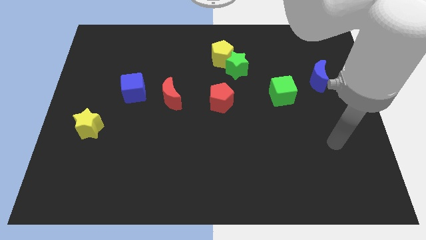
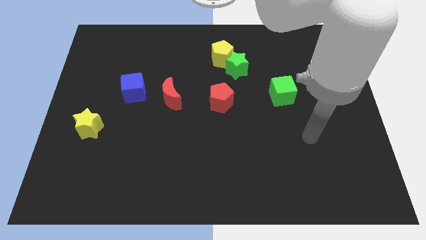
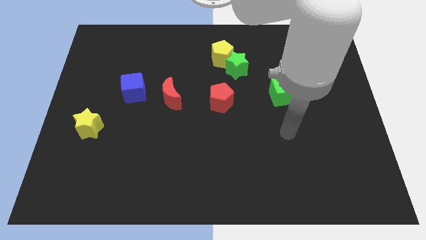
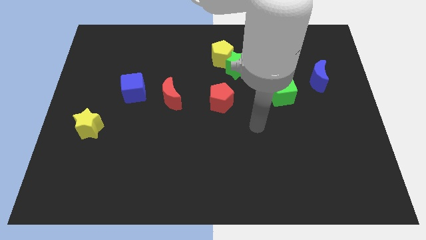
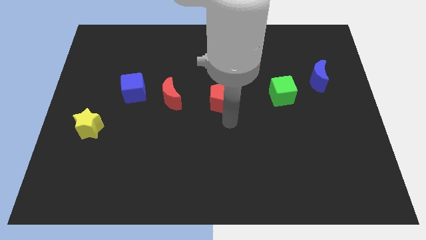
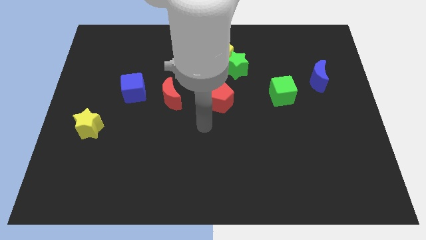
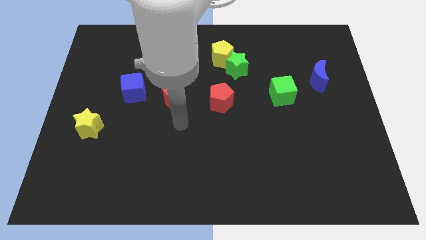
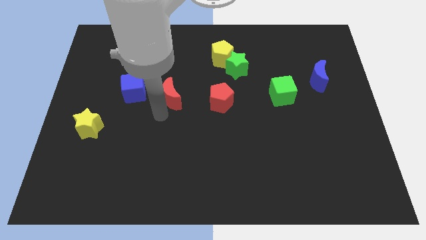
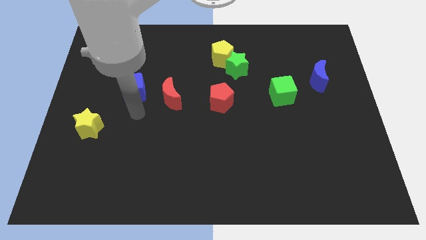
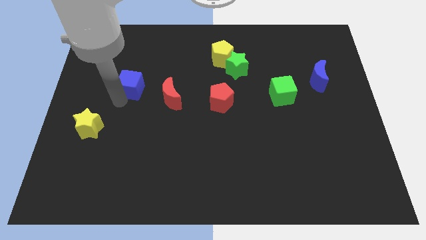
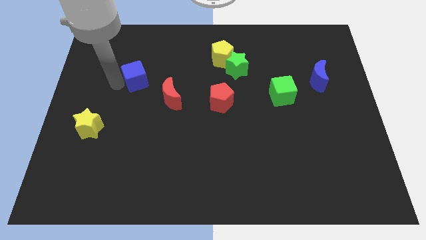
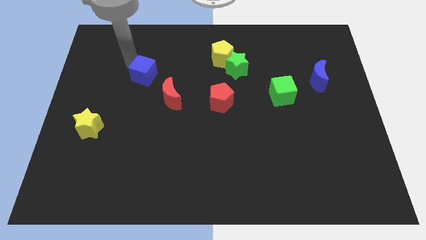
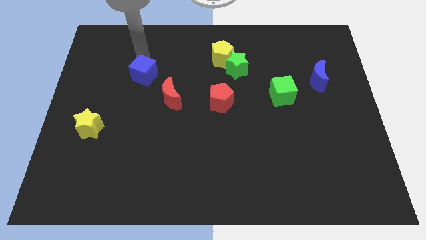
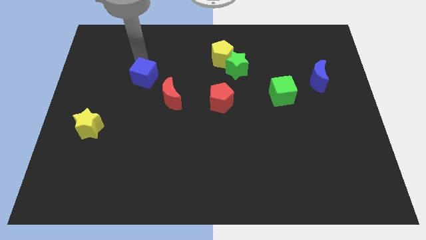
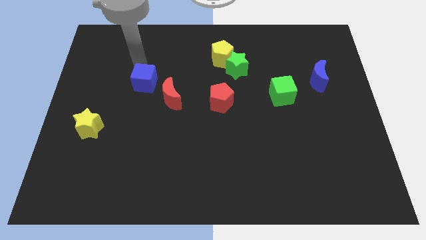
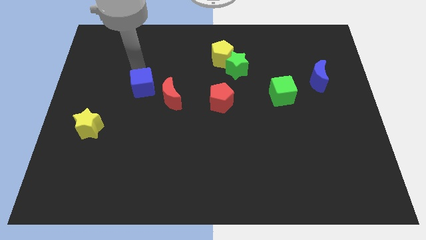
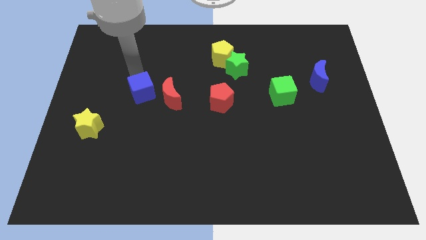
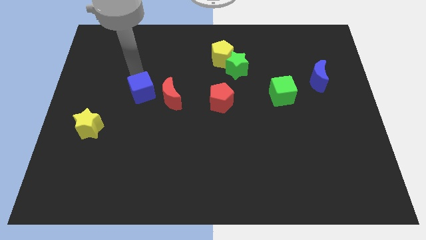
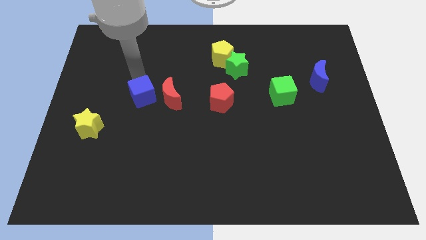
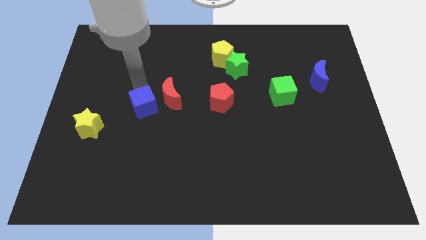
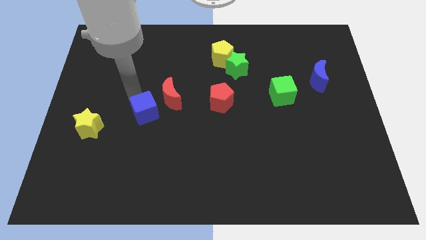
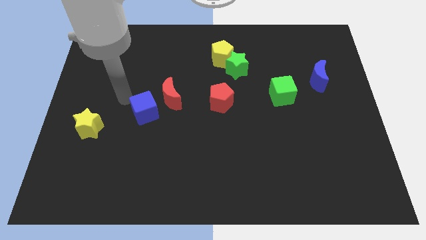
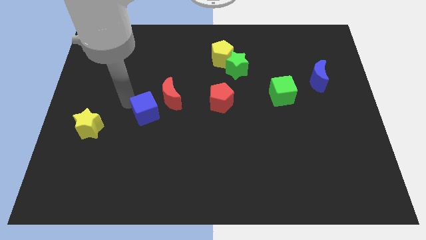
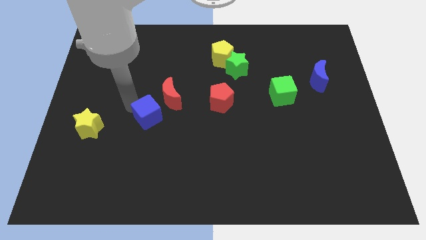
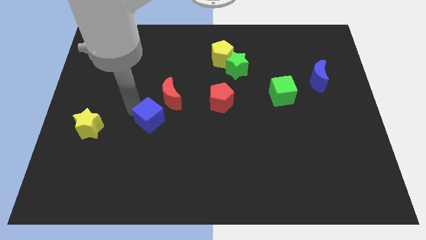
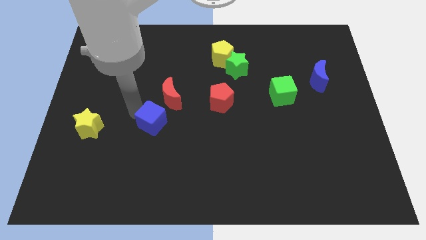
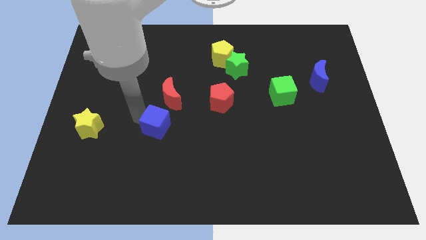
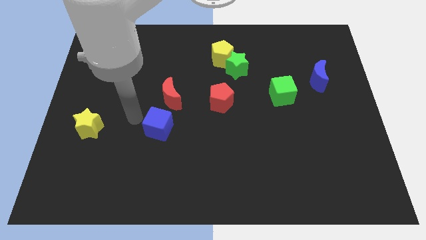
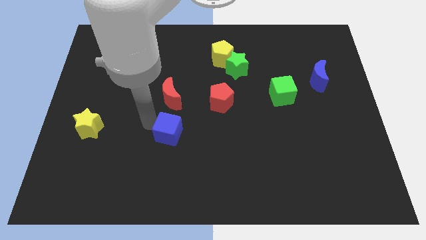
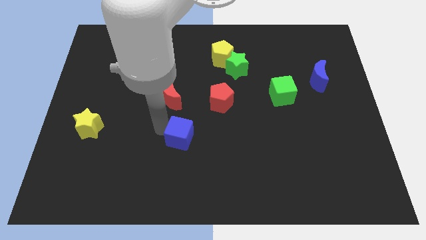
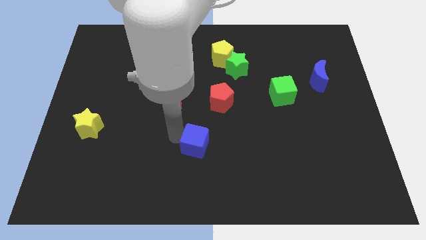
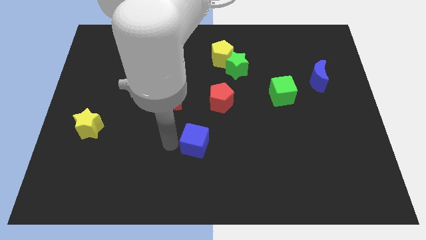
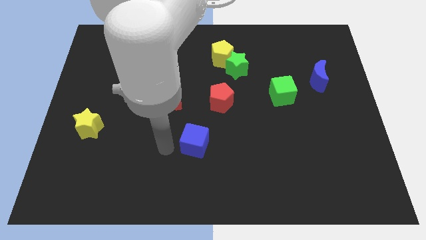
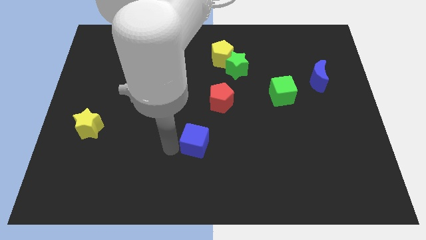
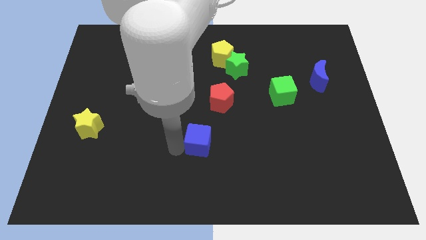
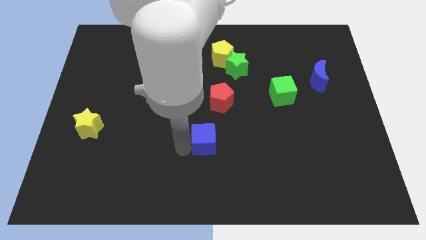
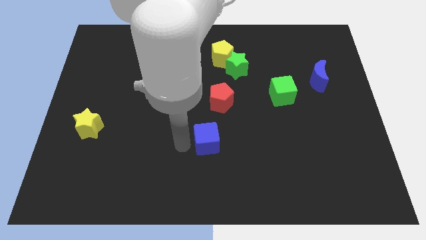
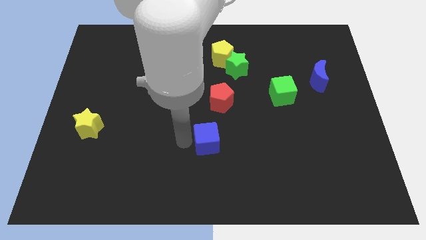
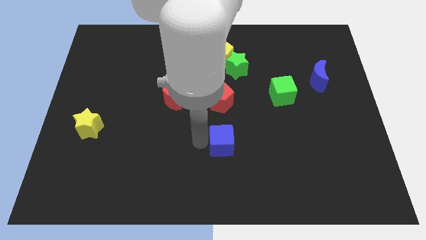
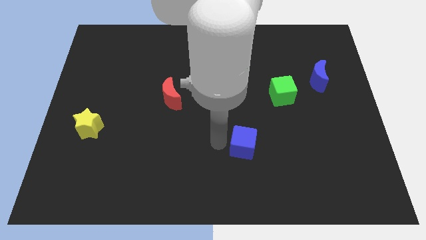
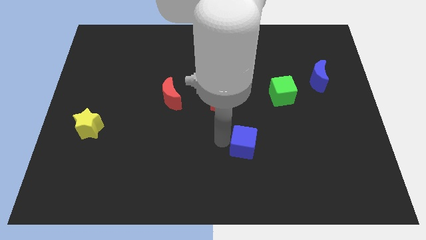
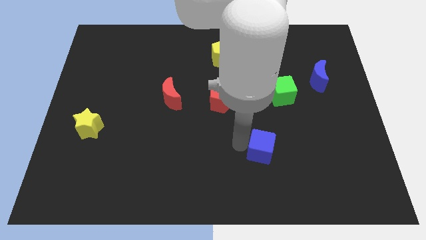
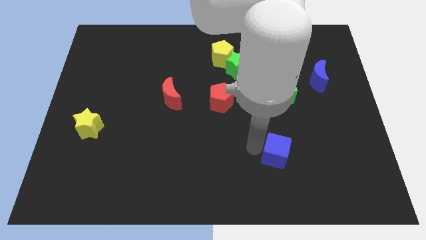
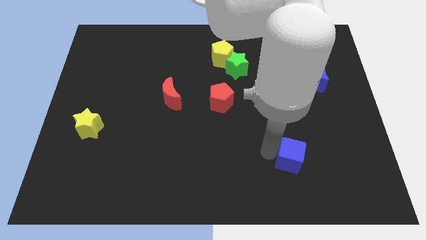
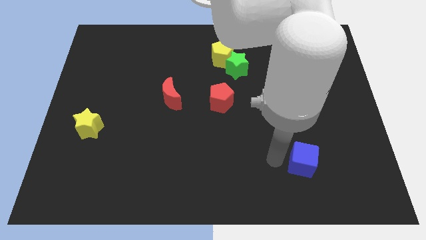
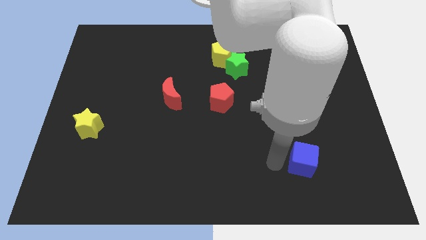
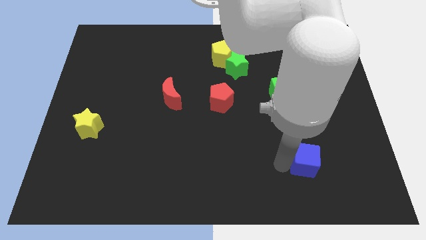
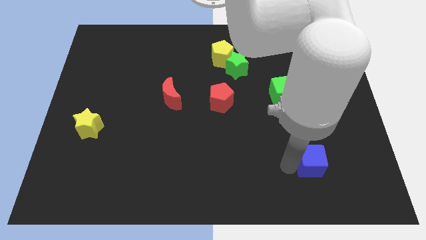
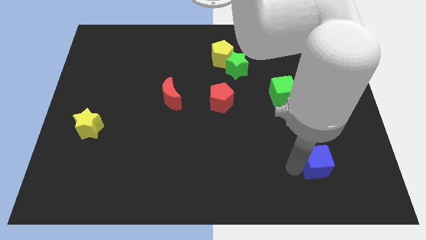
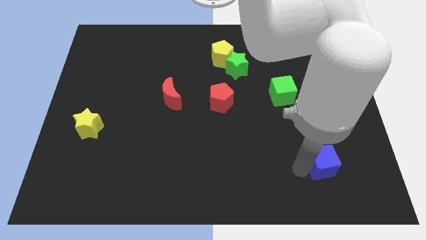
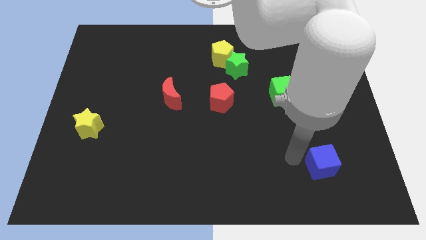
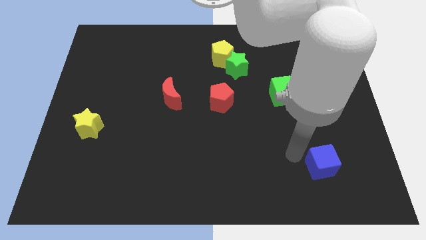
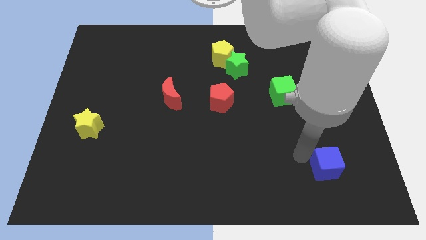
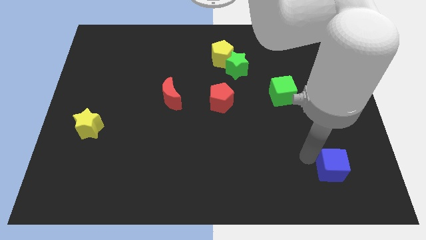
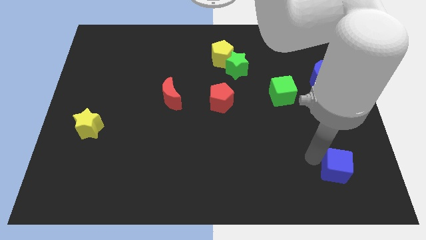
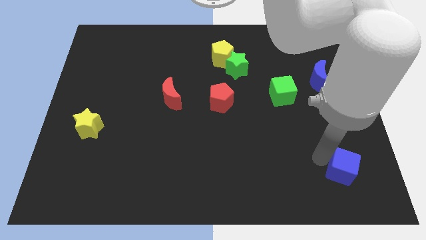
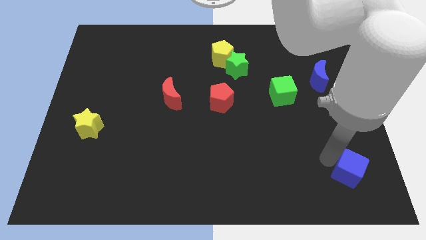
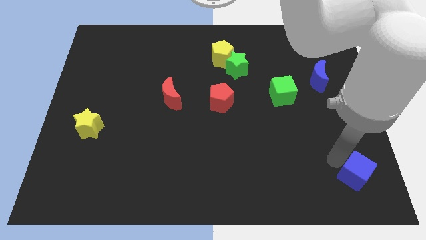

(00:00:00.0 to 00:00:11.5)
put the blue cube to the lower right corner

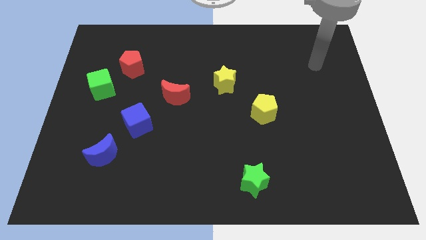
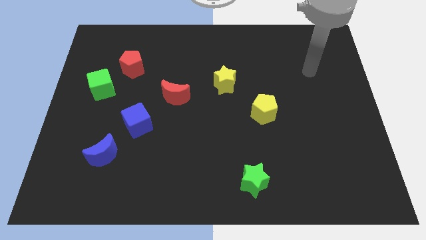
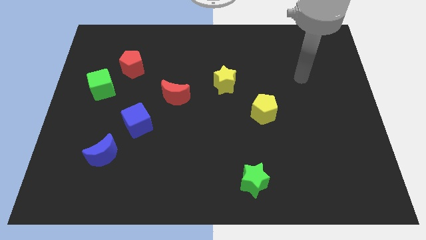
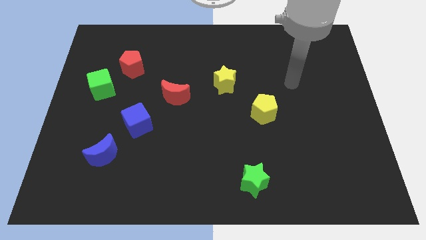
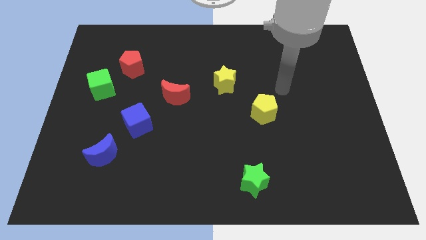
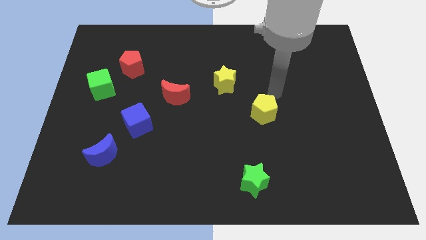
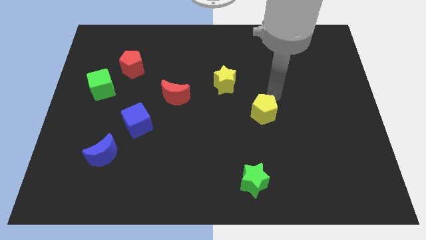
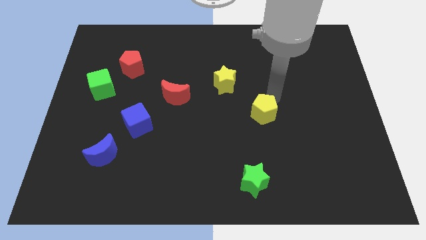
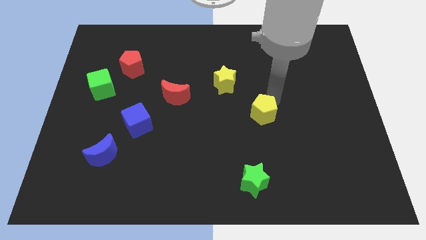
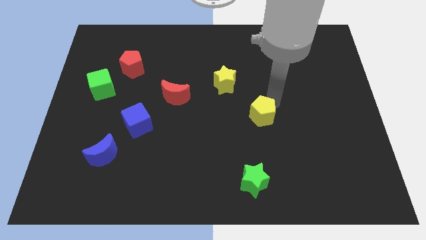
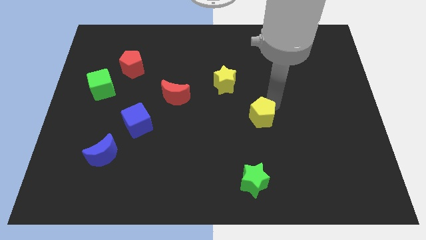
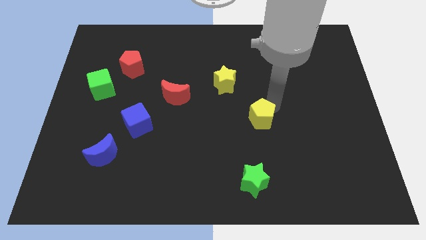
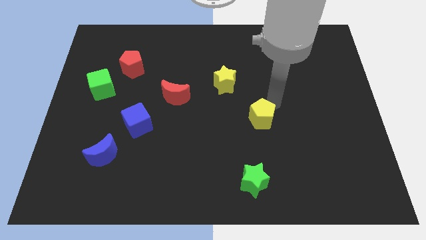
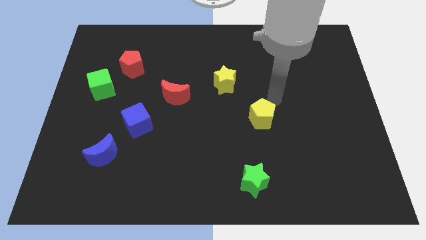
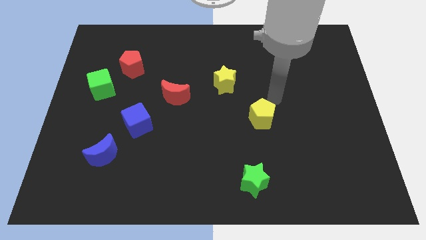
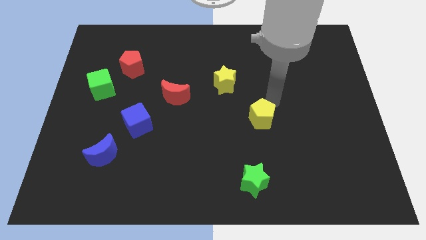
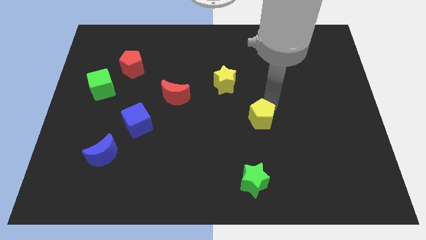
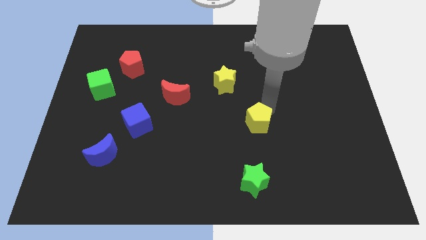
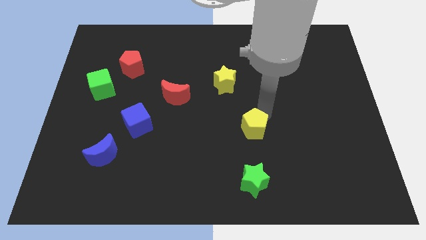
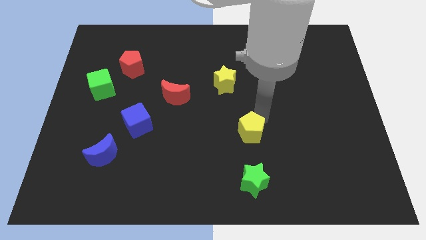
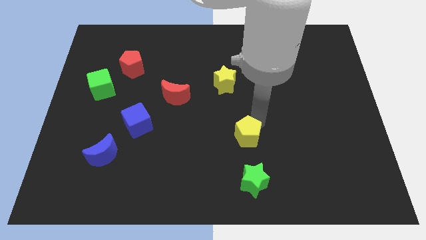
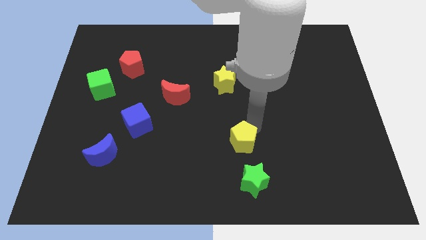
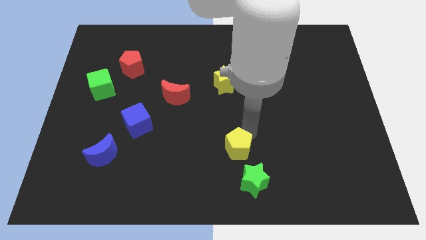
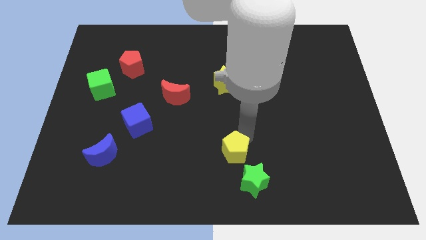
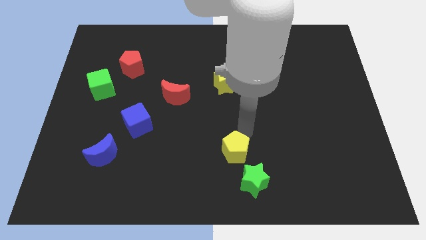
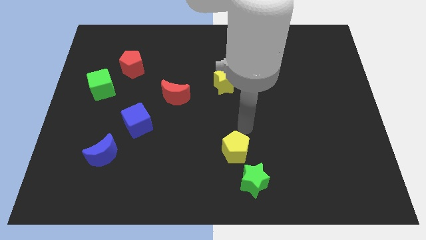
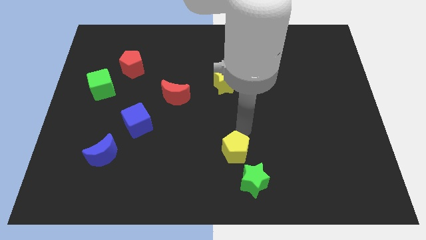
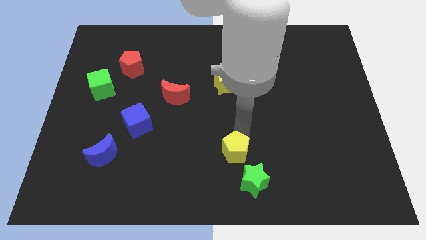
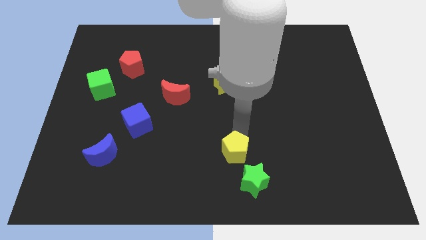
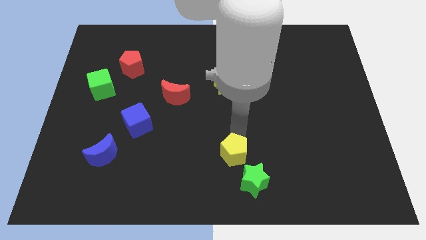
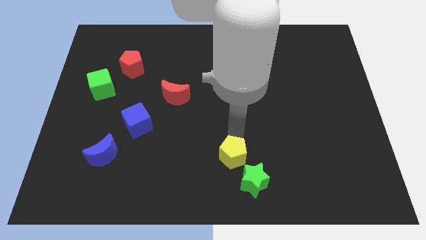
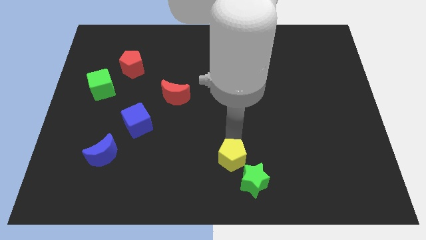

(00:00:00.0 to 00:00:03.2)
move the yellow pentagon to the bottom
